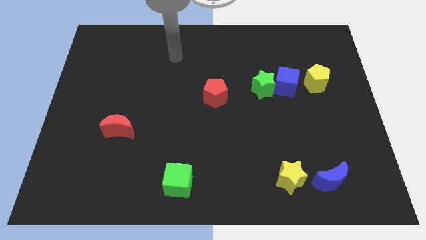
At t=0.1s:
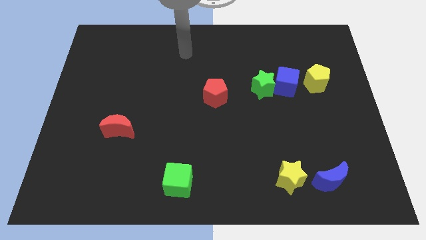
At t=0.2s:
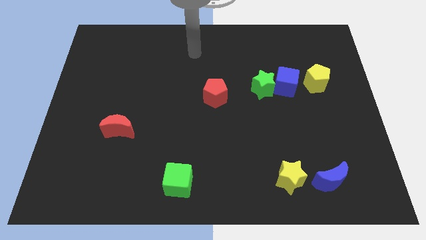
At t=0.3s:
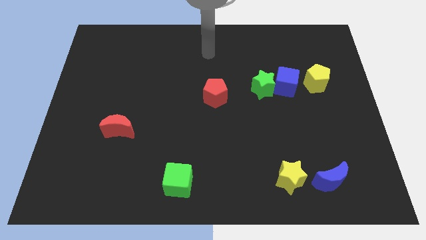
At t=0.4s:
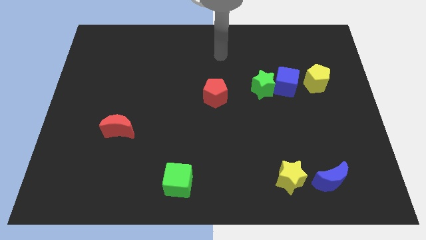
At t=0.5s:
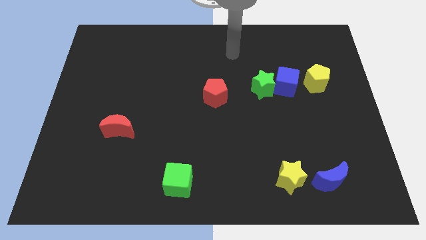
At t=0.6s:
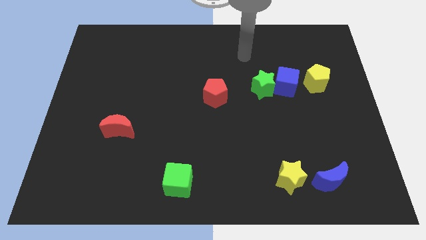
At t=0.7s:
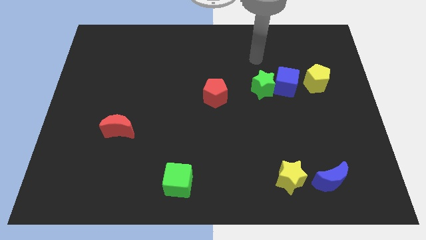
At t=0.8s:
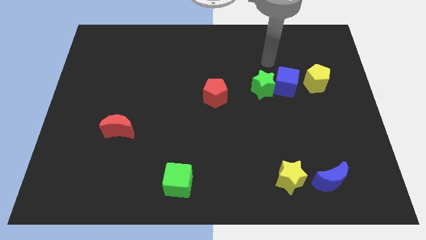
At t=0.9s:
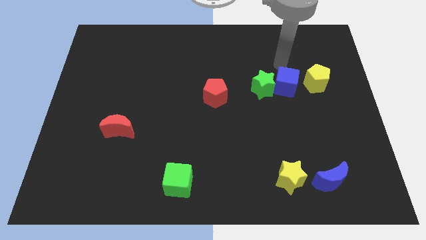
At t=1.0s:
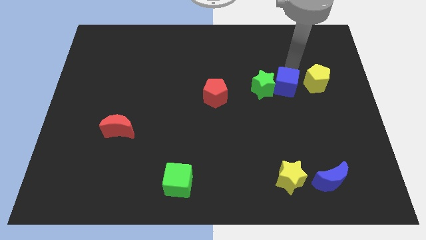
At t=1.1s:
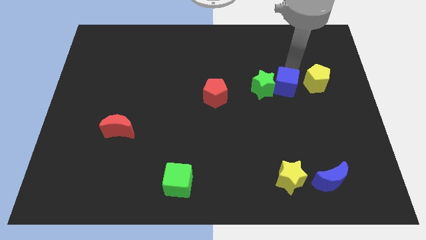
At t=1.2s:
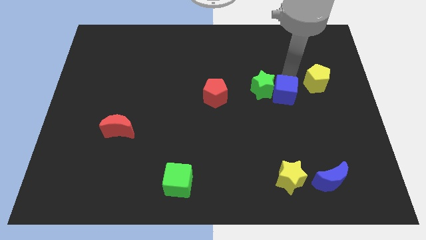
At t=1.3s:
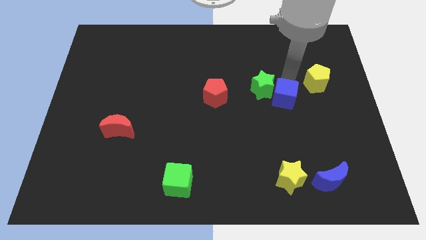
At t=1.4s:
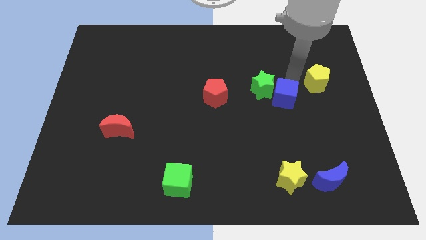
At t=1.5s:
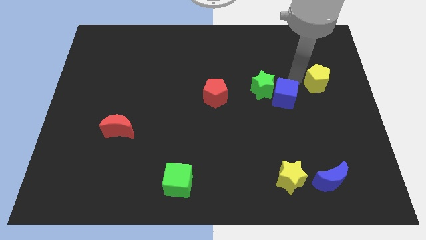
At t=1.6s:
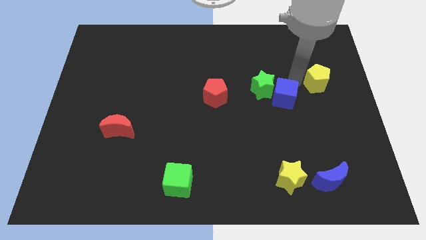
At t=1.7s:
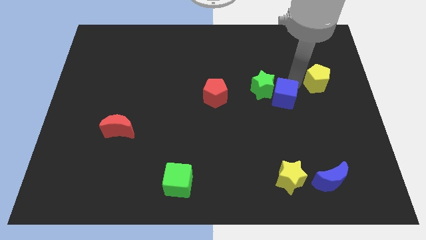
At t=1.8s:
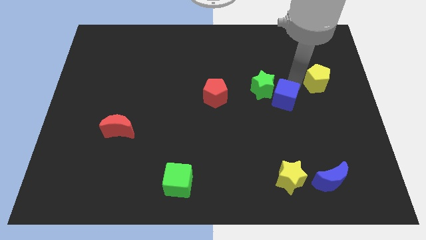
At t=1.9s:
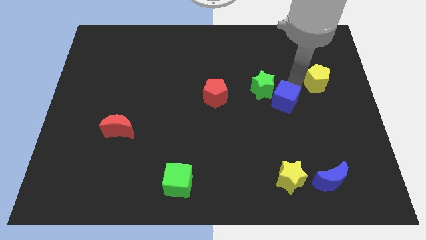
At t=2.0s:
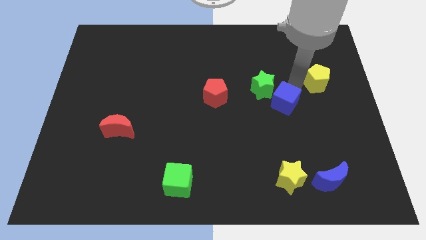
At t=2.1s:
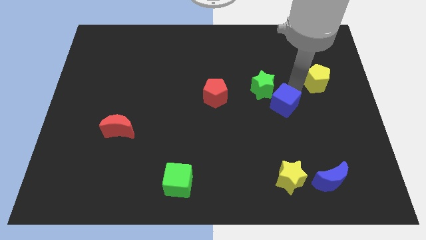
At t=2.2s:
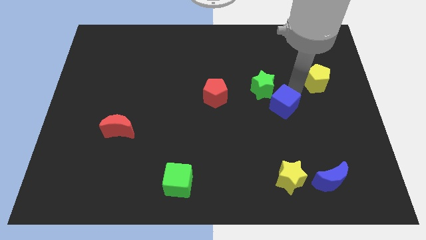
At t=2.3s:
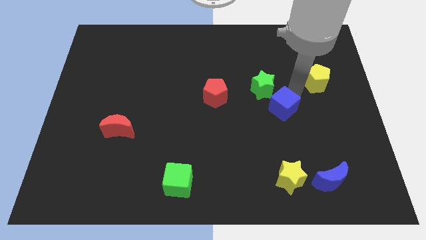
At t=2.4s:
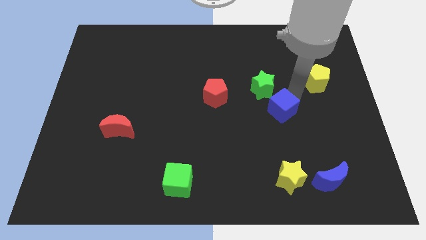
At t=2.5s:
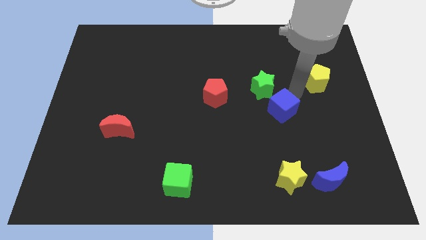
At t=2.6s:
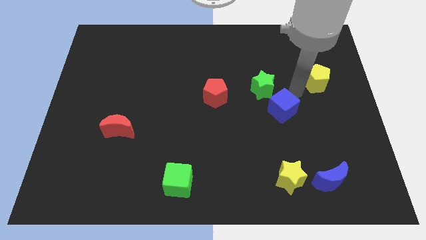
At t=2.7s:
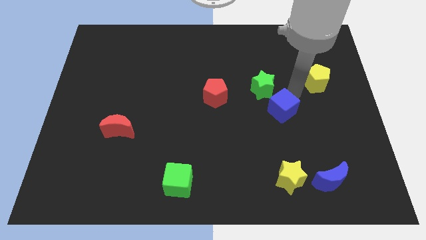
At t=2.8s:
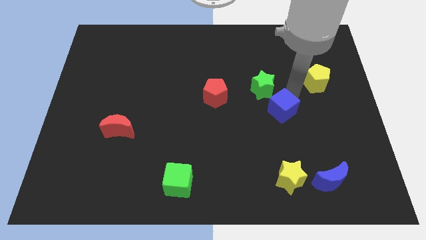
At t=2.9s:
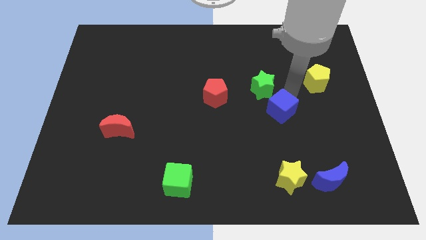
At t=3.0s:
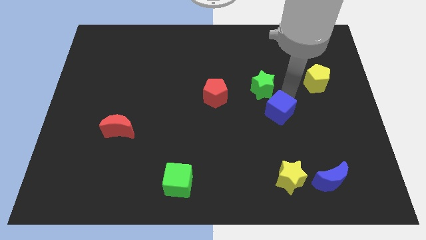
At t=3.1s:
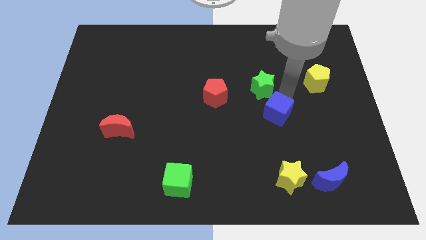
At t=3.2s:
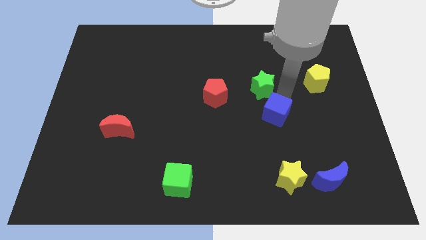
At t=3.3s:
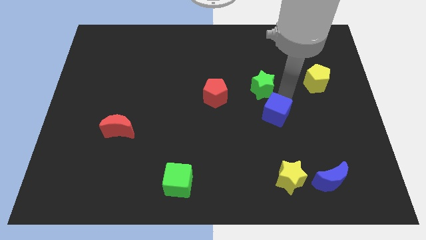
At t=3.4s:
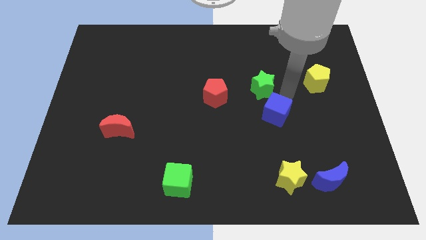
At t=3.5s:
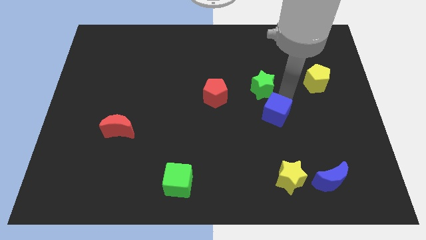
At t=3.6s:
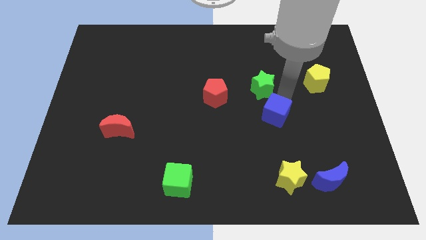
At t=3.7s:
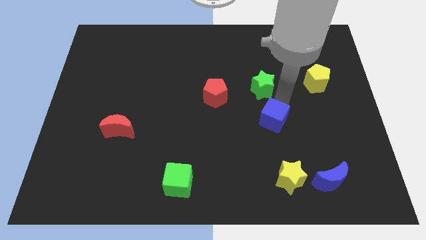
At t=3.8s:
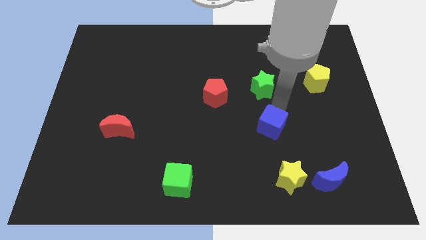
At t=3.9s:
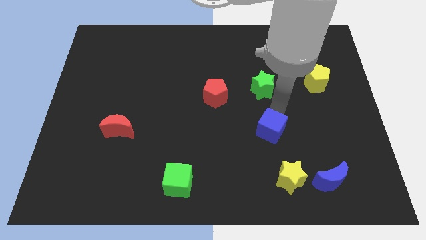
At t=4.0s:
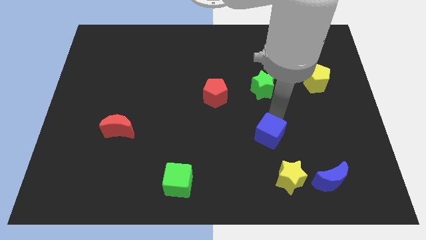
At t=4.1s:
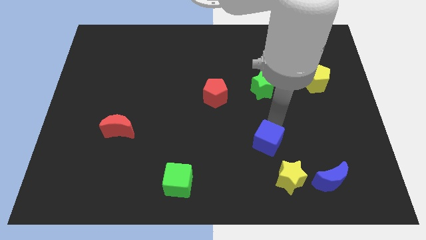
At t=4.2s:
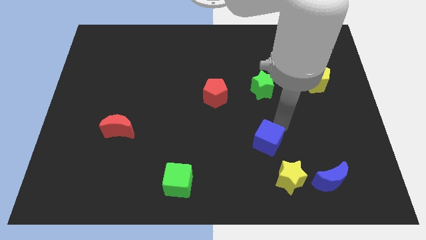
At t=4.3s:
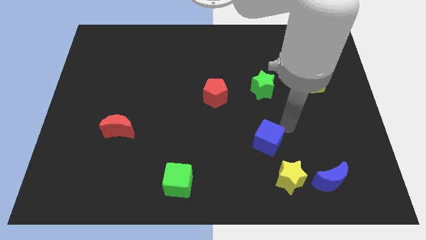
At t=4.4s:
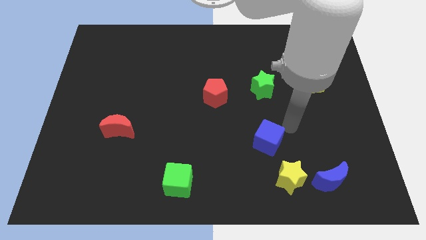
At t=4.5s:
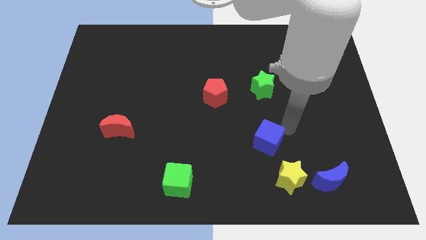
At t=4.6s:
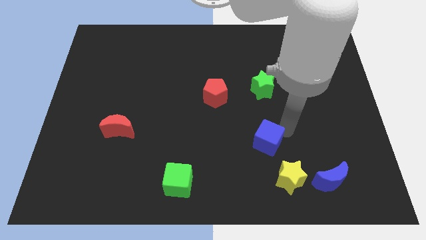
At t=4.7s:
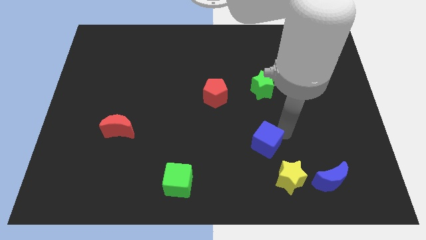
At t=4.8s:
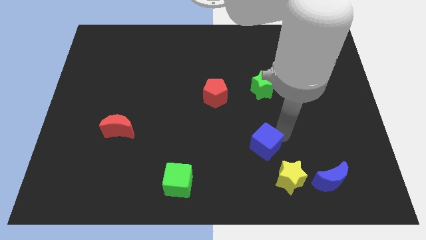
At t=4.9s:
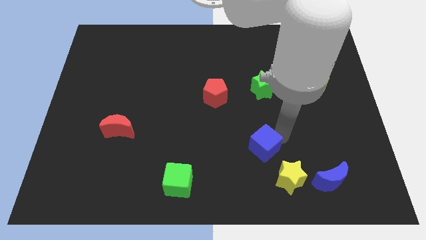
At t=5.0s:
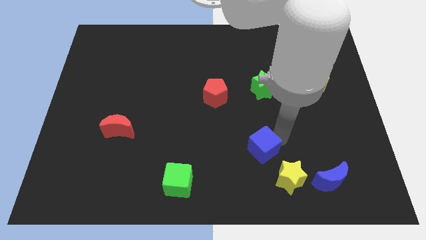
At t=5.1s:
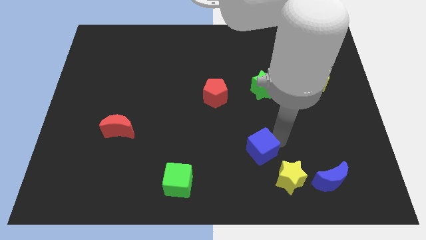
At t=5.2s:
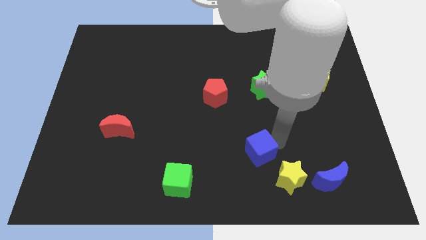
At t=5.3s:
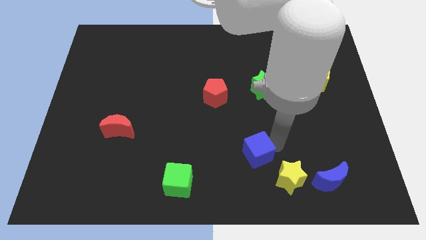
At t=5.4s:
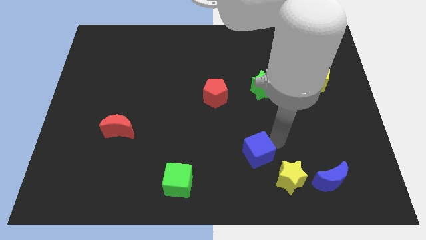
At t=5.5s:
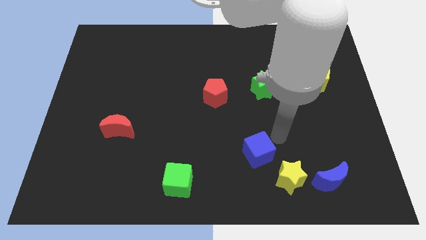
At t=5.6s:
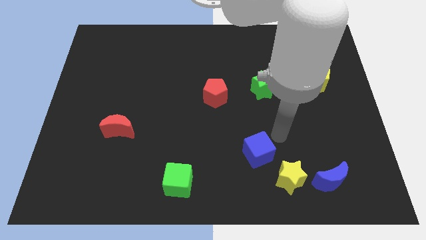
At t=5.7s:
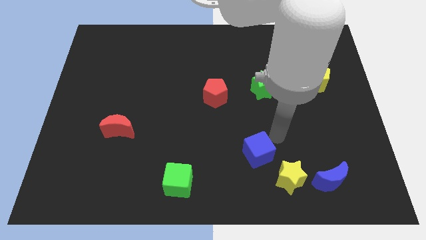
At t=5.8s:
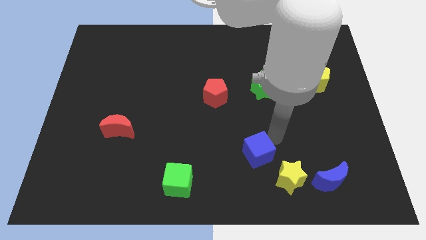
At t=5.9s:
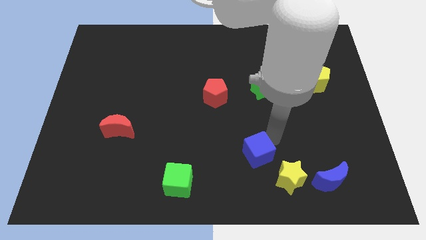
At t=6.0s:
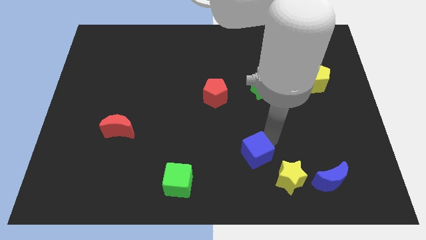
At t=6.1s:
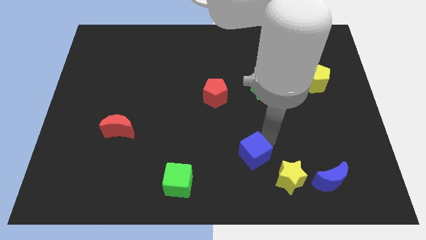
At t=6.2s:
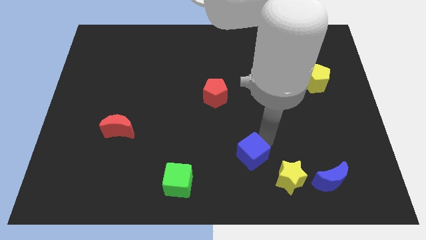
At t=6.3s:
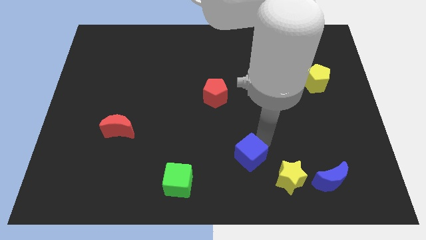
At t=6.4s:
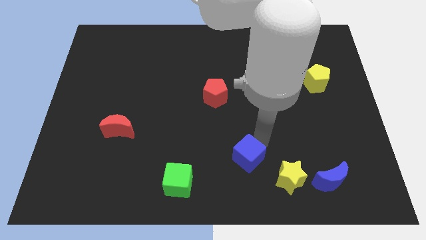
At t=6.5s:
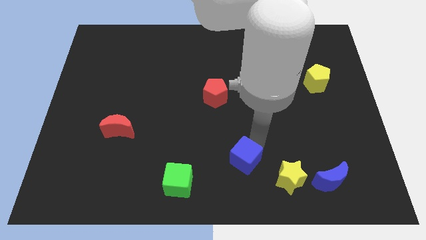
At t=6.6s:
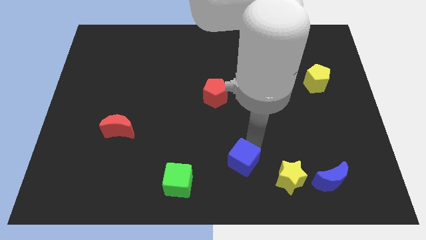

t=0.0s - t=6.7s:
move the blue cube to the bottom
